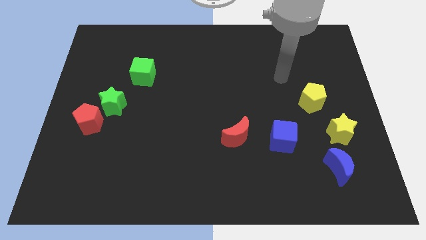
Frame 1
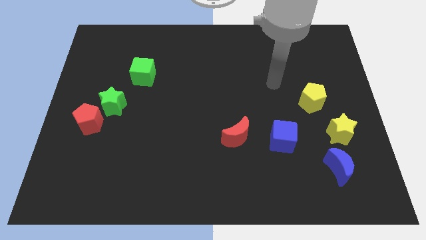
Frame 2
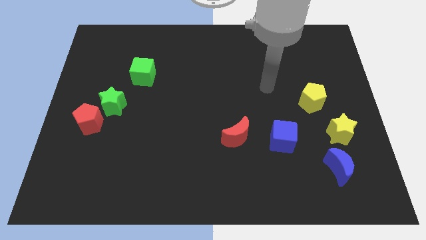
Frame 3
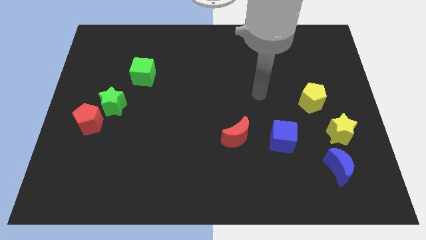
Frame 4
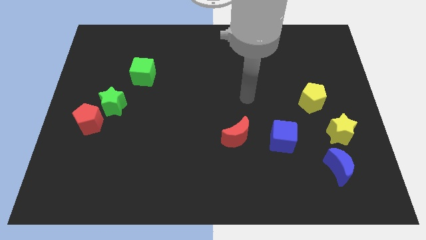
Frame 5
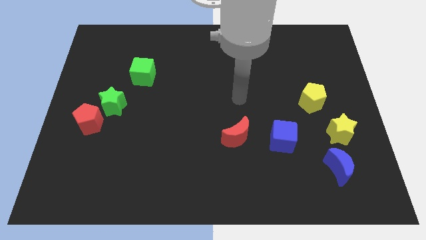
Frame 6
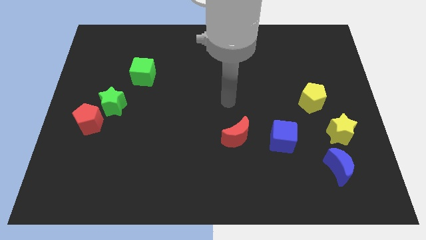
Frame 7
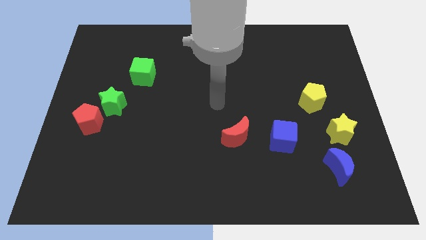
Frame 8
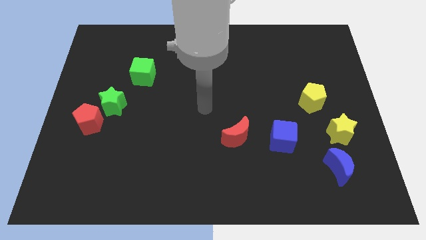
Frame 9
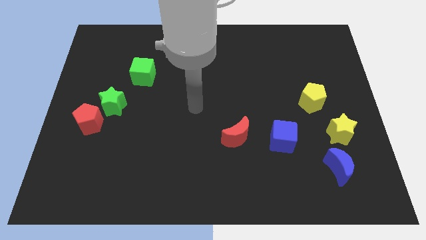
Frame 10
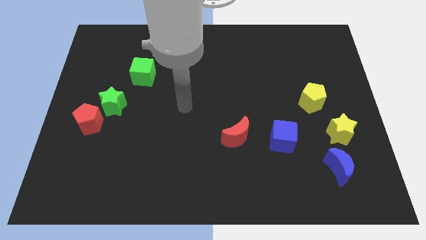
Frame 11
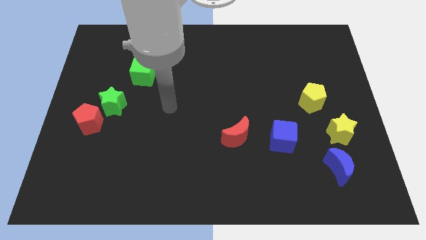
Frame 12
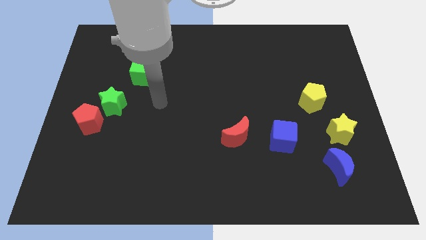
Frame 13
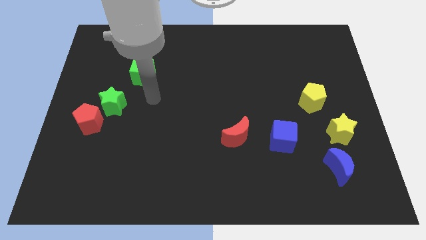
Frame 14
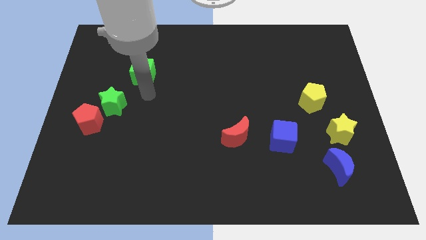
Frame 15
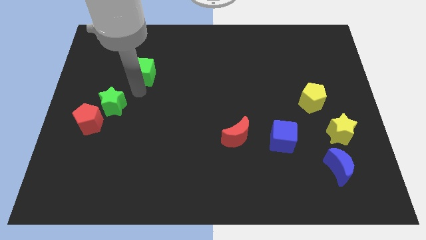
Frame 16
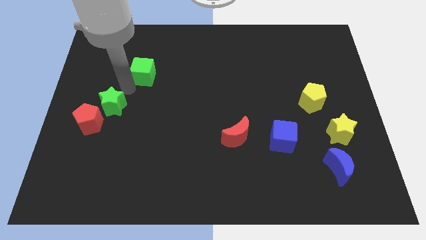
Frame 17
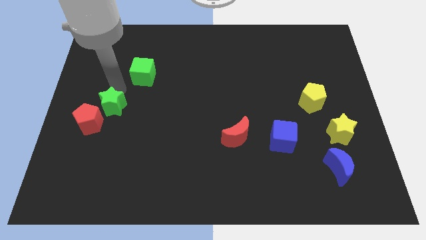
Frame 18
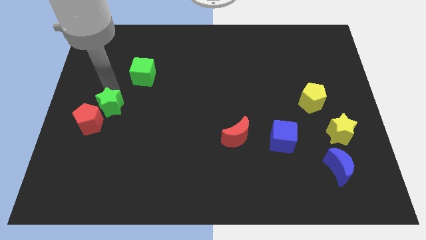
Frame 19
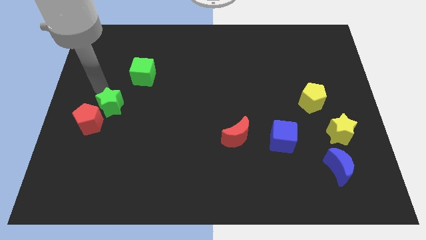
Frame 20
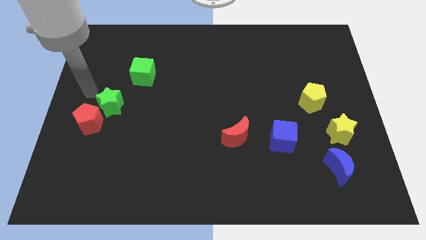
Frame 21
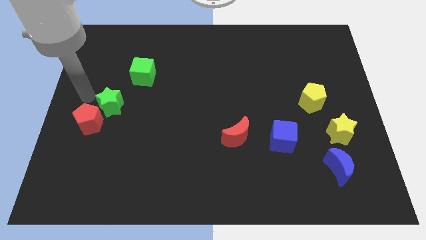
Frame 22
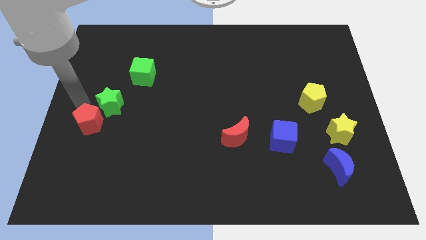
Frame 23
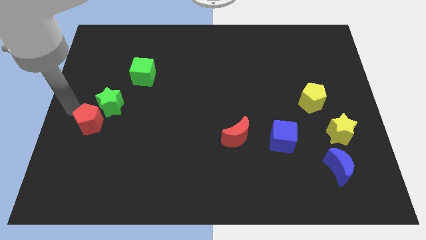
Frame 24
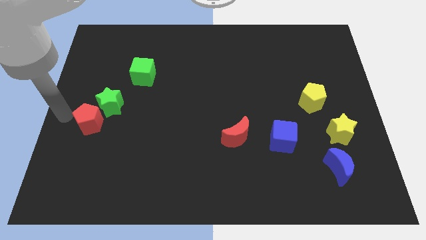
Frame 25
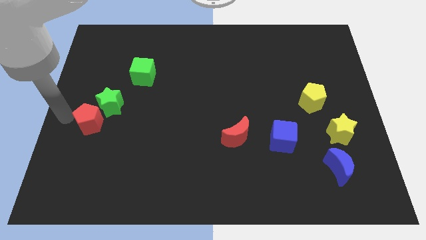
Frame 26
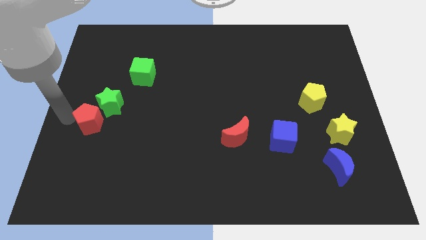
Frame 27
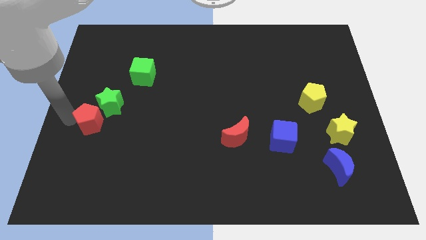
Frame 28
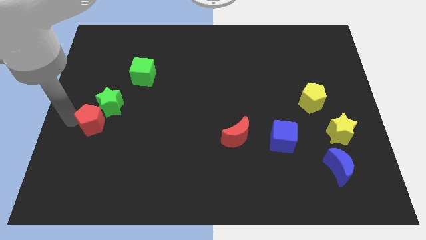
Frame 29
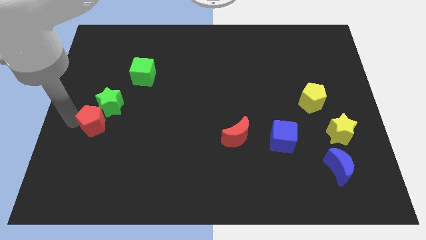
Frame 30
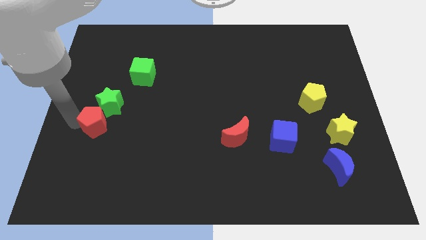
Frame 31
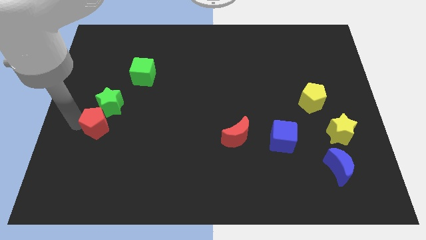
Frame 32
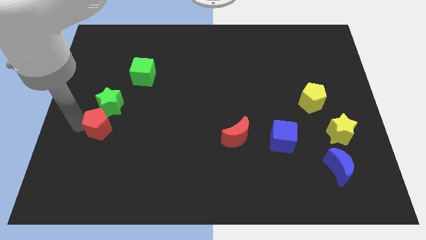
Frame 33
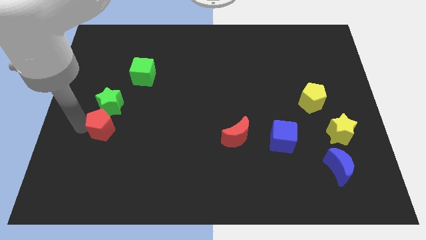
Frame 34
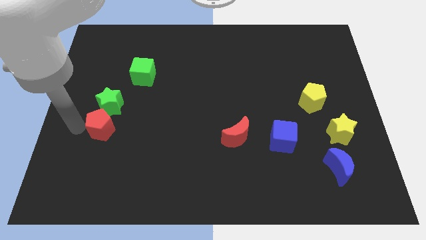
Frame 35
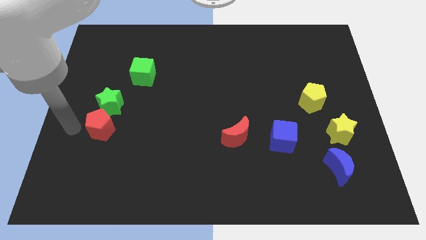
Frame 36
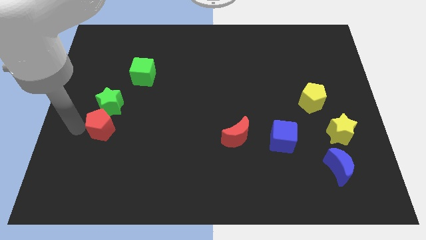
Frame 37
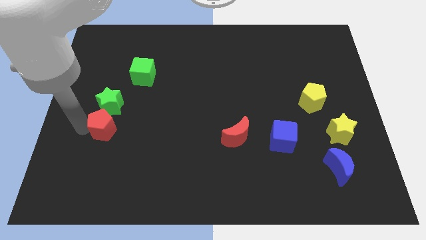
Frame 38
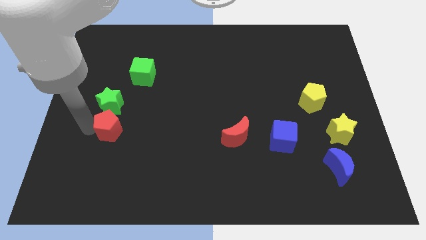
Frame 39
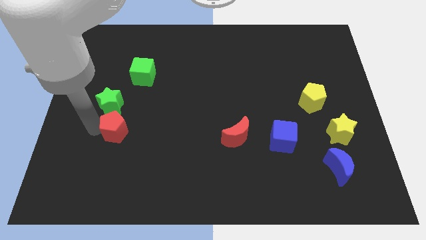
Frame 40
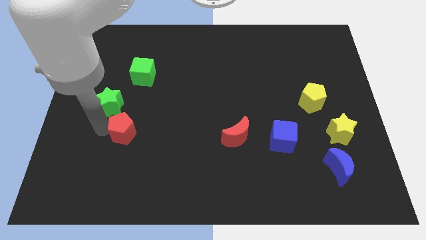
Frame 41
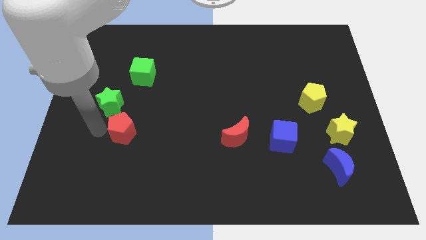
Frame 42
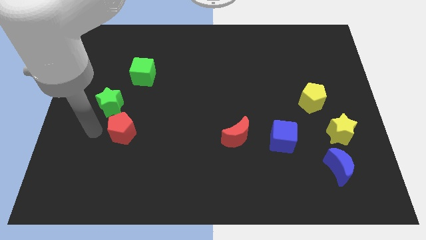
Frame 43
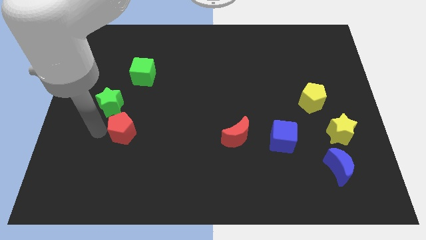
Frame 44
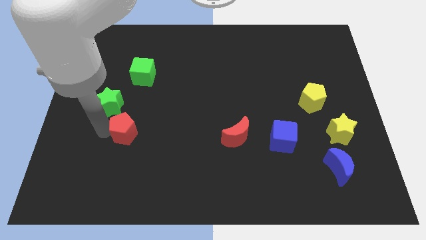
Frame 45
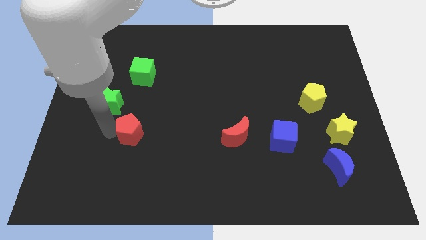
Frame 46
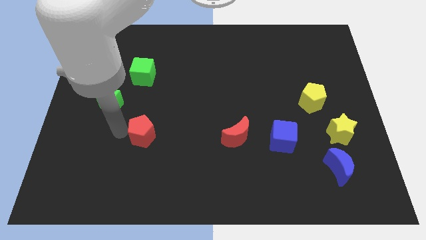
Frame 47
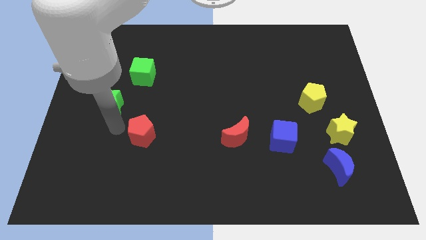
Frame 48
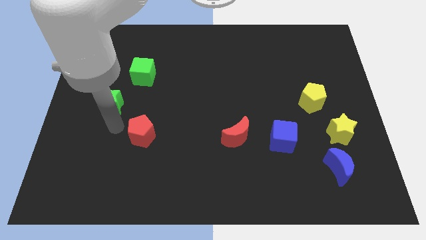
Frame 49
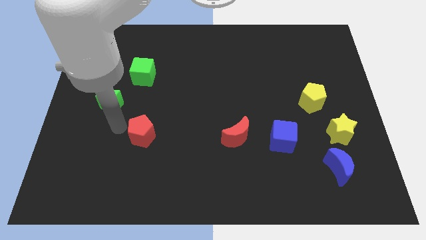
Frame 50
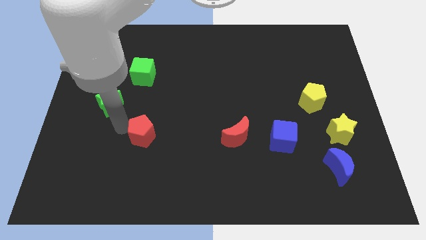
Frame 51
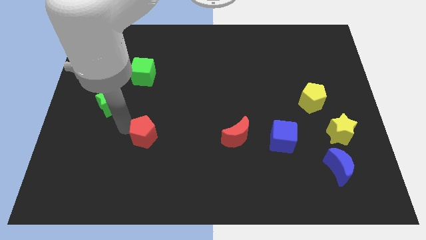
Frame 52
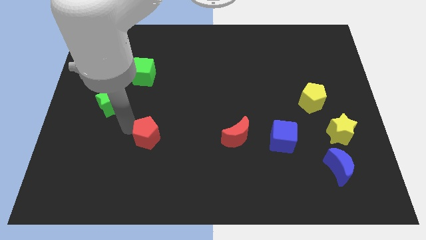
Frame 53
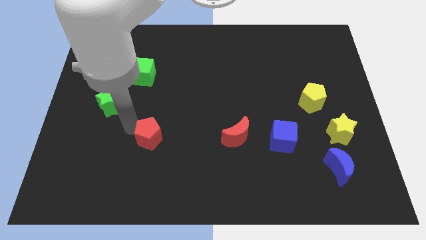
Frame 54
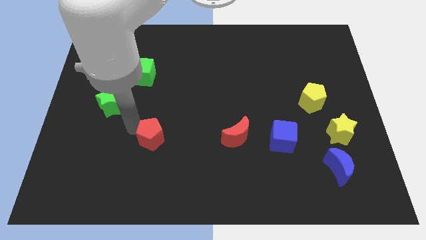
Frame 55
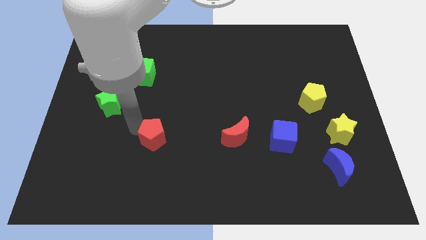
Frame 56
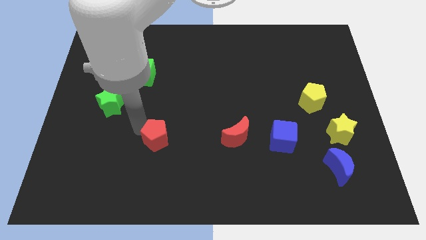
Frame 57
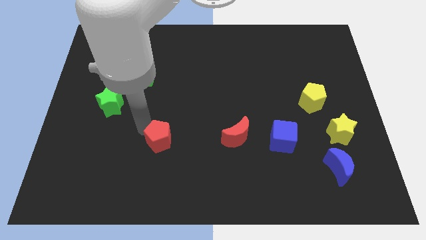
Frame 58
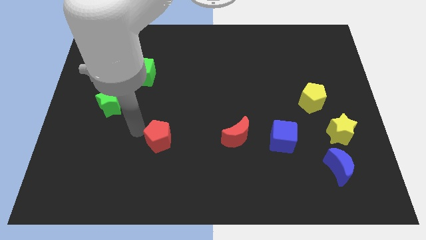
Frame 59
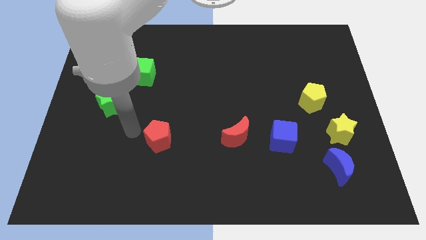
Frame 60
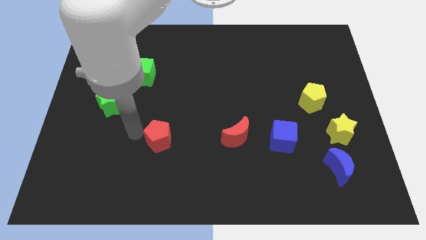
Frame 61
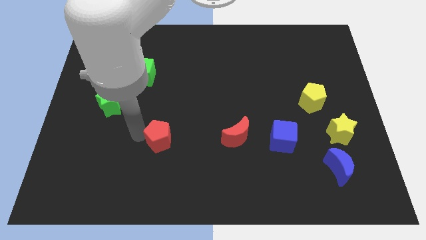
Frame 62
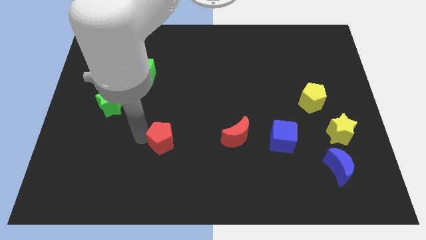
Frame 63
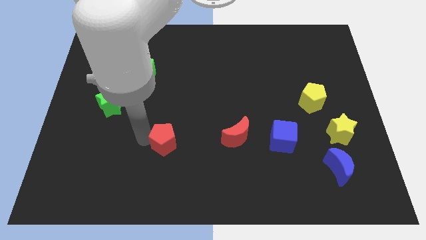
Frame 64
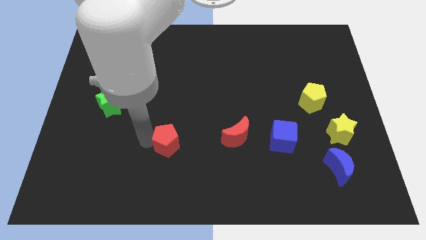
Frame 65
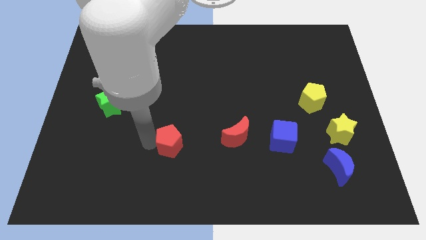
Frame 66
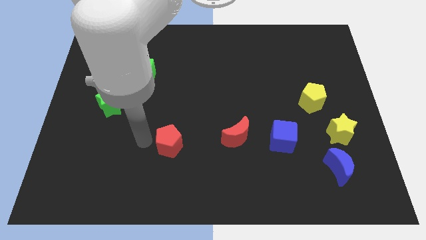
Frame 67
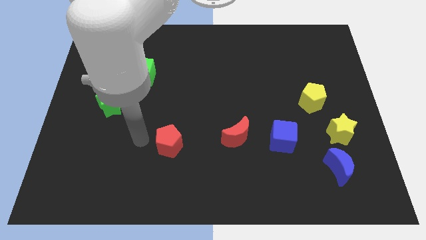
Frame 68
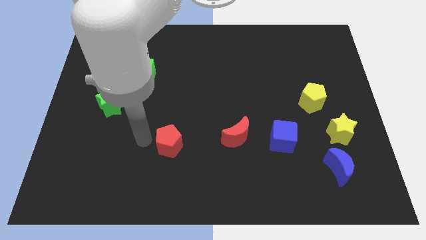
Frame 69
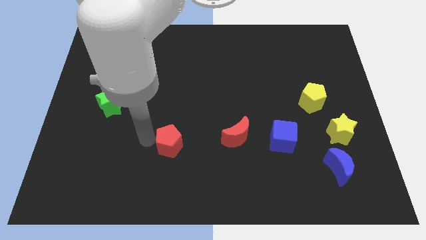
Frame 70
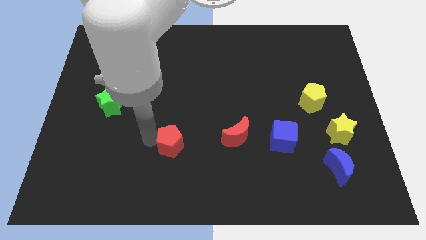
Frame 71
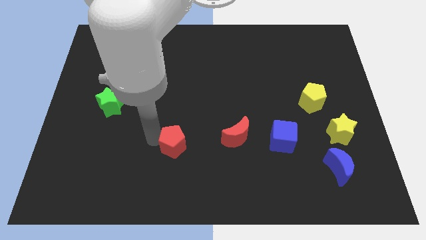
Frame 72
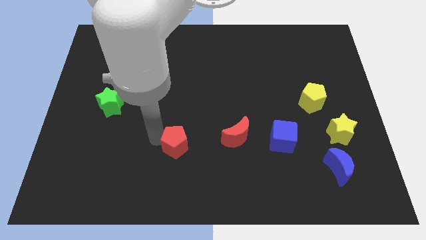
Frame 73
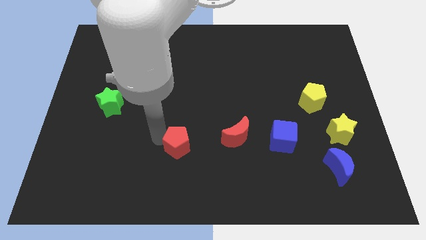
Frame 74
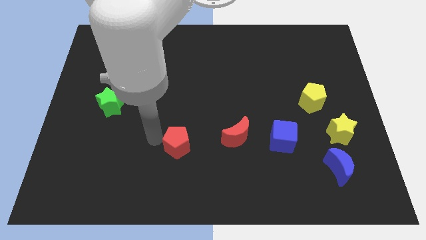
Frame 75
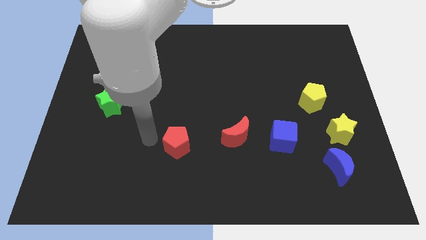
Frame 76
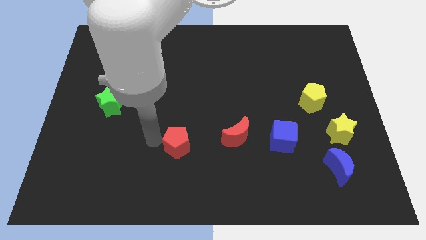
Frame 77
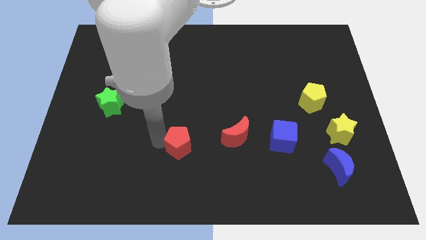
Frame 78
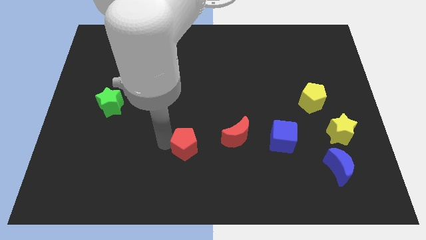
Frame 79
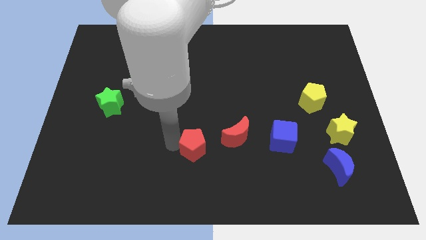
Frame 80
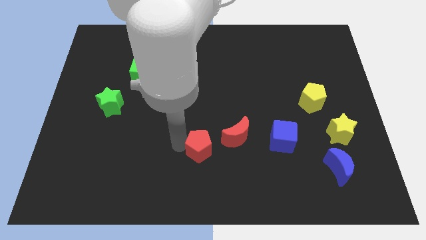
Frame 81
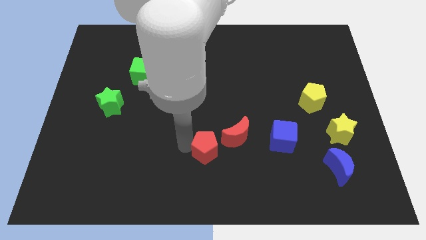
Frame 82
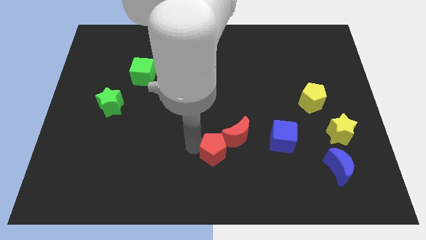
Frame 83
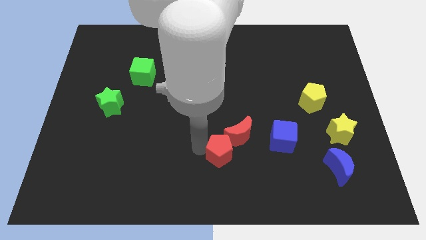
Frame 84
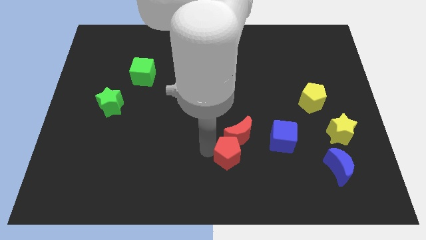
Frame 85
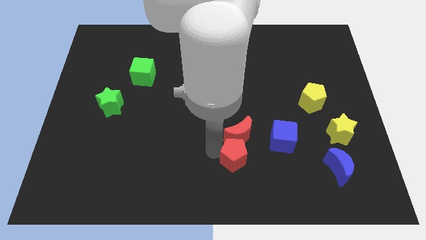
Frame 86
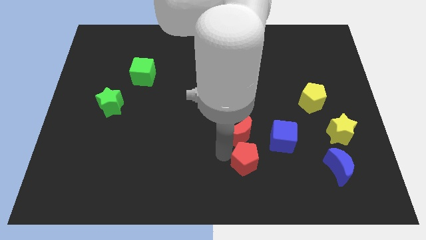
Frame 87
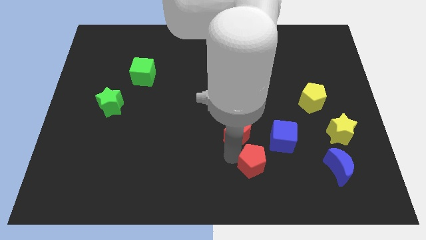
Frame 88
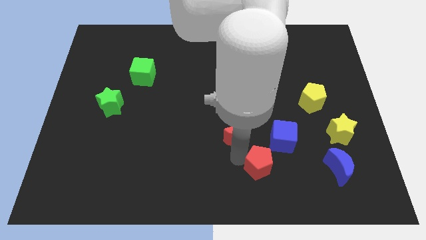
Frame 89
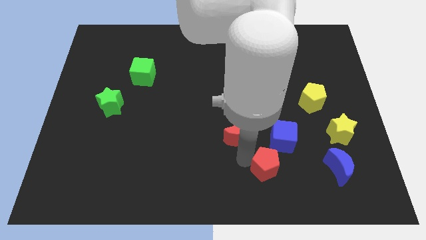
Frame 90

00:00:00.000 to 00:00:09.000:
slide the red pentagon to the bottom side of the blue cube
